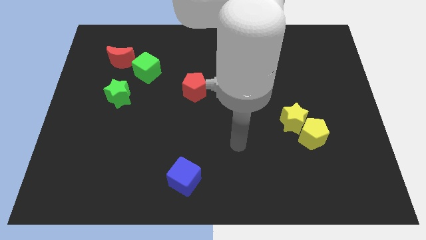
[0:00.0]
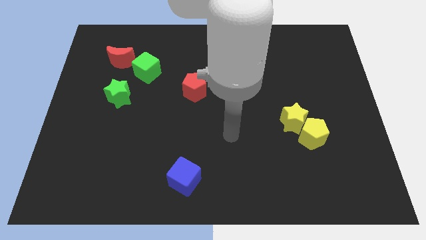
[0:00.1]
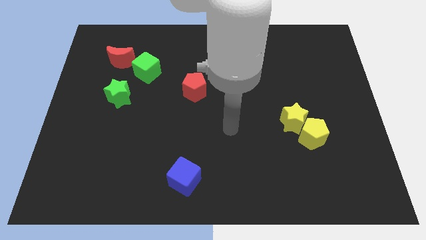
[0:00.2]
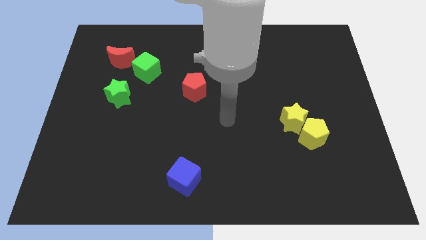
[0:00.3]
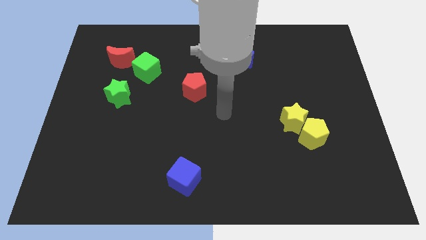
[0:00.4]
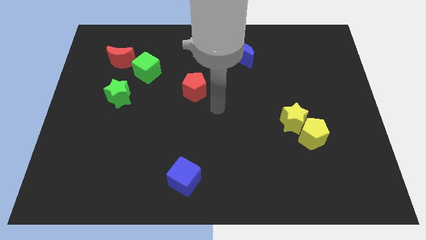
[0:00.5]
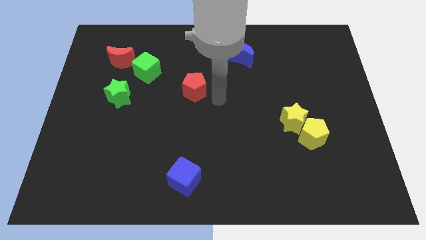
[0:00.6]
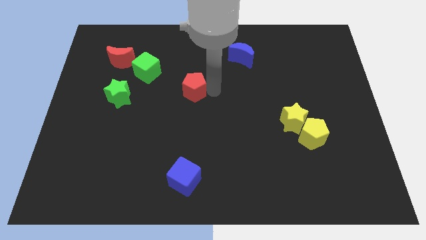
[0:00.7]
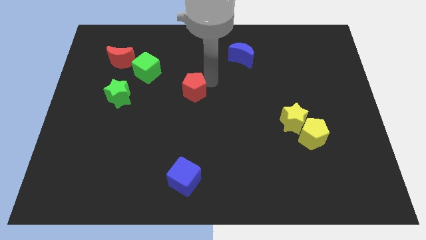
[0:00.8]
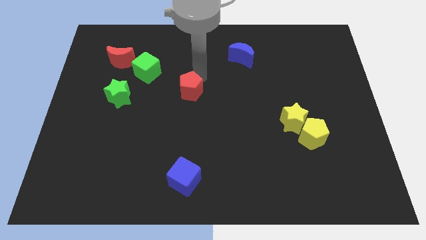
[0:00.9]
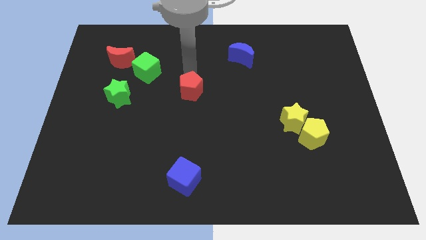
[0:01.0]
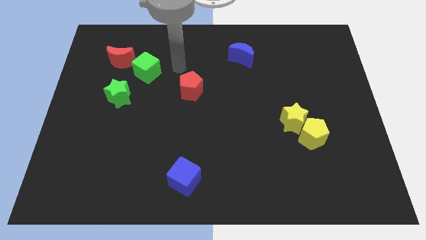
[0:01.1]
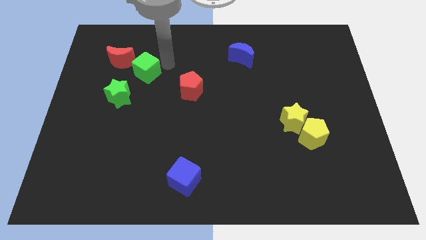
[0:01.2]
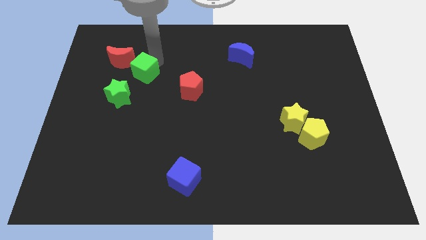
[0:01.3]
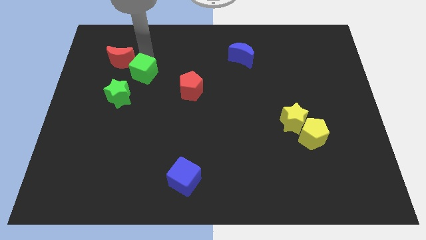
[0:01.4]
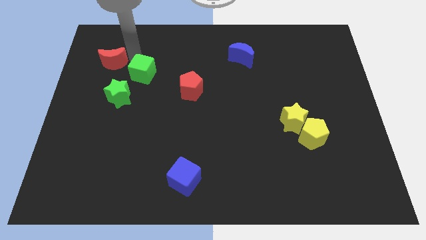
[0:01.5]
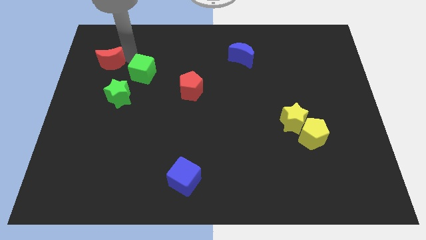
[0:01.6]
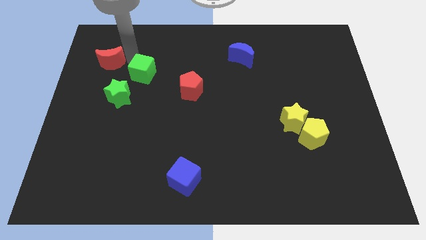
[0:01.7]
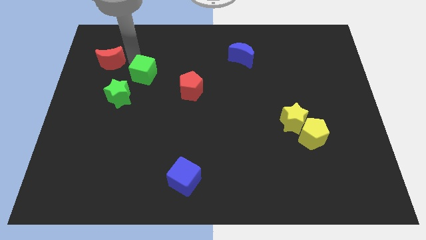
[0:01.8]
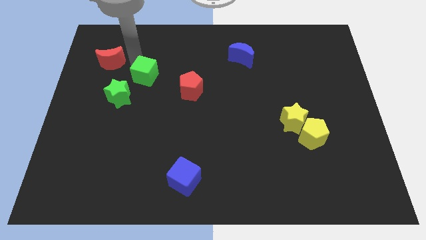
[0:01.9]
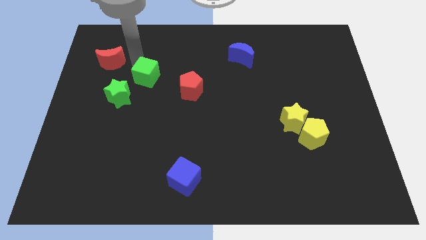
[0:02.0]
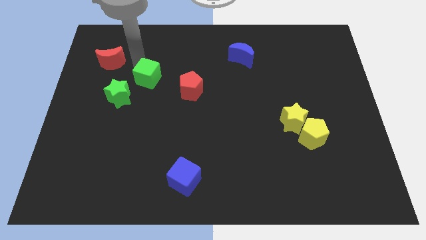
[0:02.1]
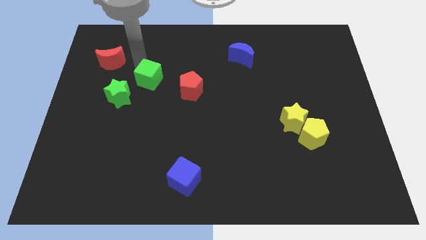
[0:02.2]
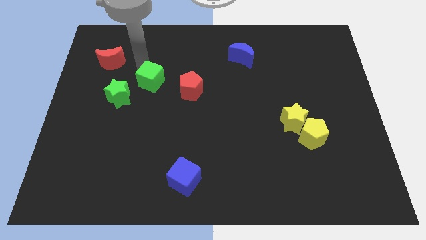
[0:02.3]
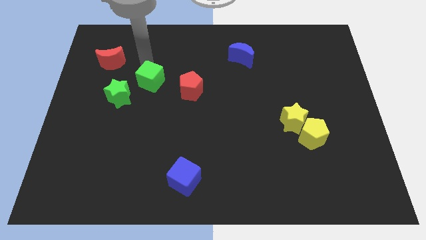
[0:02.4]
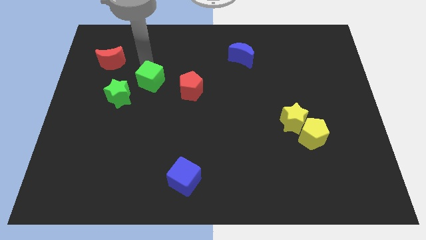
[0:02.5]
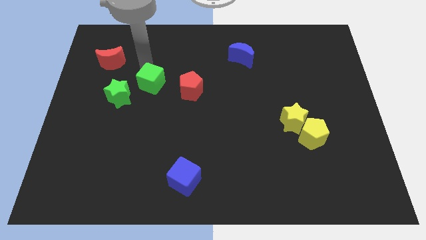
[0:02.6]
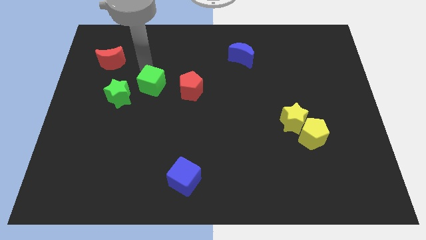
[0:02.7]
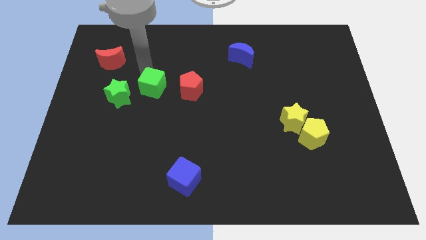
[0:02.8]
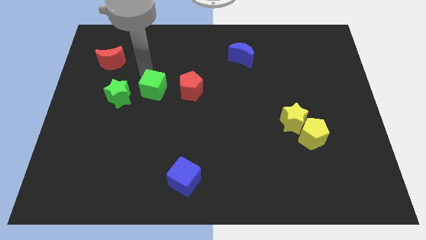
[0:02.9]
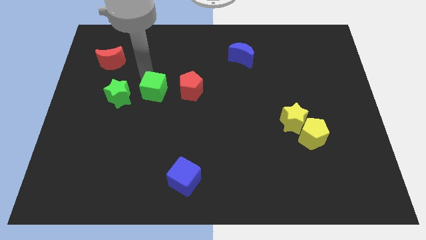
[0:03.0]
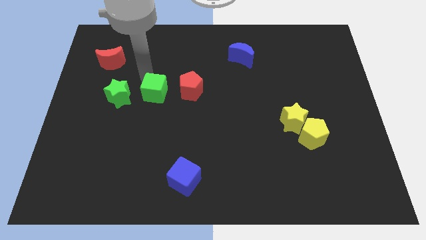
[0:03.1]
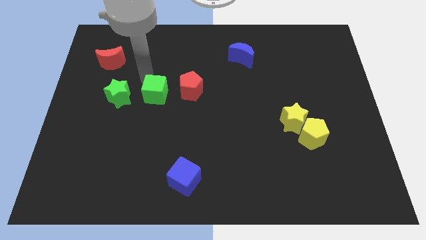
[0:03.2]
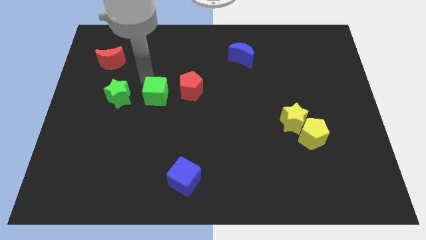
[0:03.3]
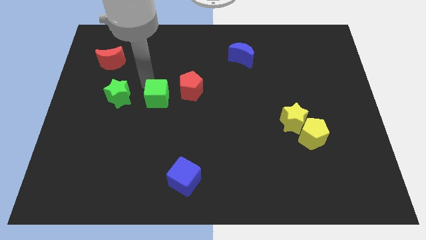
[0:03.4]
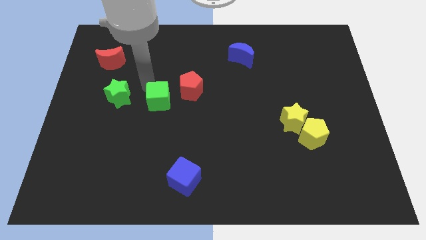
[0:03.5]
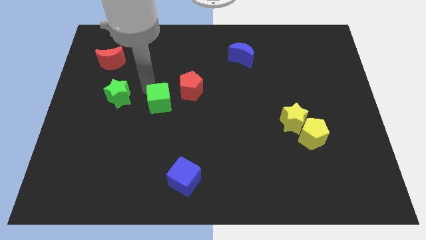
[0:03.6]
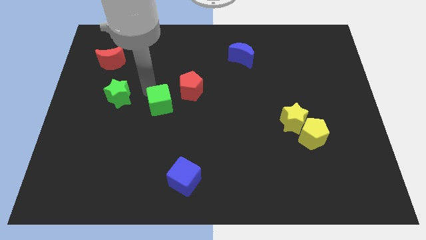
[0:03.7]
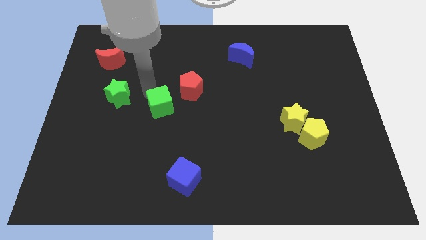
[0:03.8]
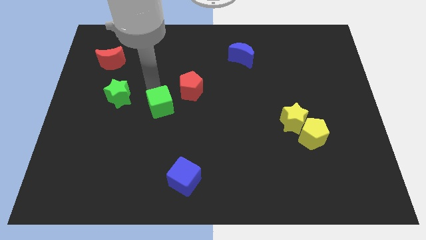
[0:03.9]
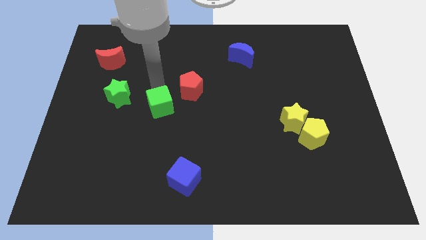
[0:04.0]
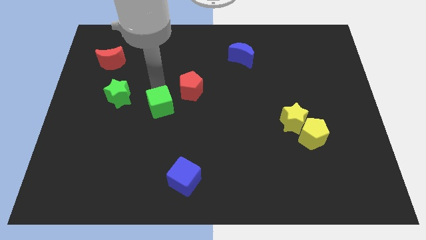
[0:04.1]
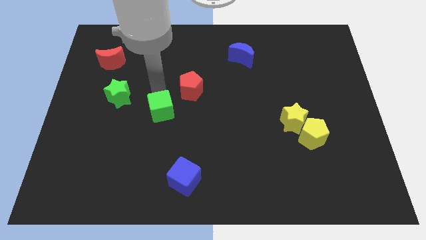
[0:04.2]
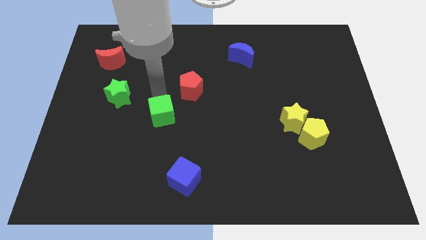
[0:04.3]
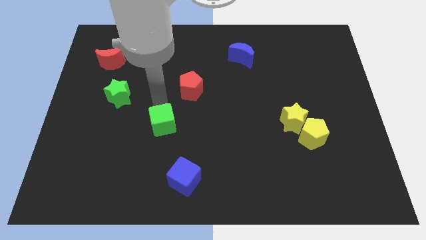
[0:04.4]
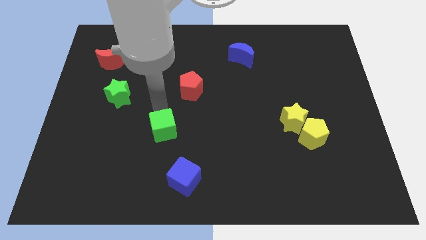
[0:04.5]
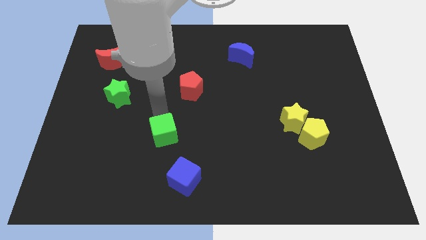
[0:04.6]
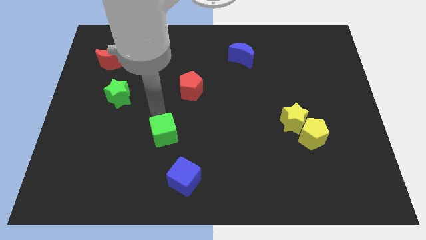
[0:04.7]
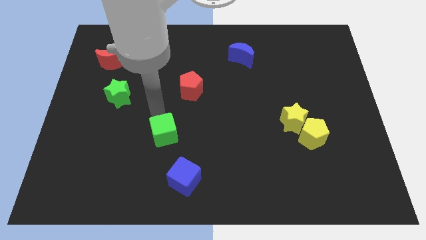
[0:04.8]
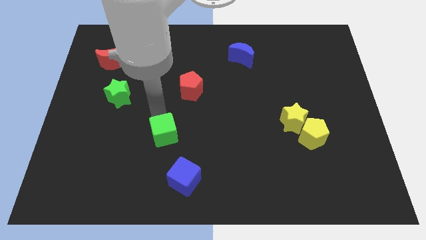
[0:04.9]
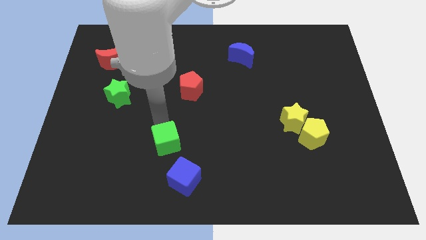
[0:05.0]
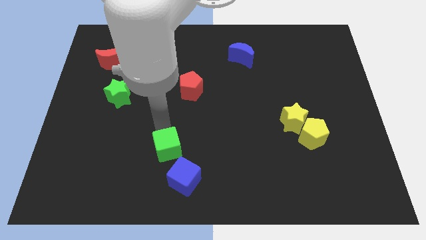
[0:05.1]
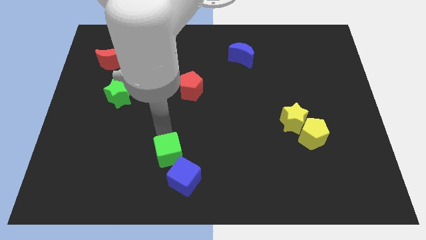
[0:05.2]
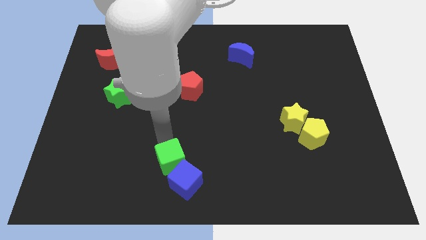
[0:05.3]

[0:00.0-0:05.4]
push the green cube to the blue cube

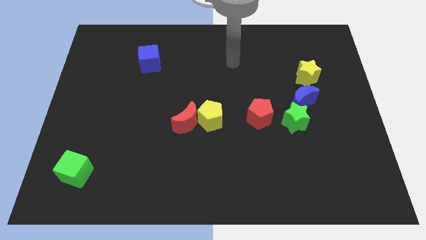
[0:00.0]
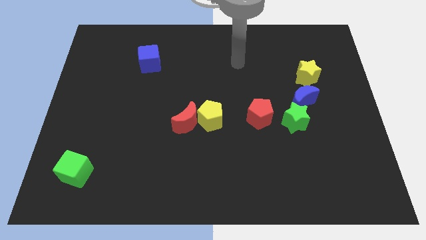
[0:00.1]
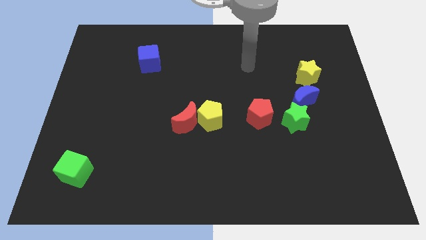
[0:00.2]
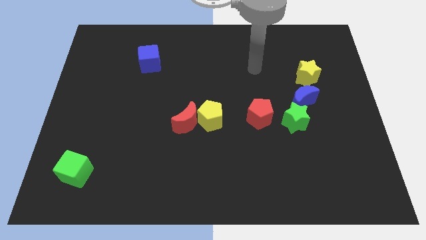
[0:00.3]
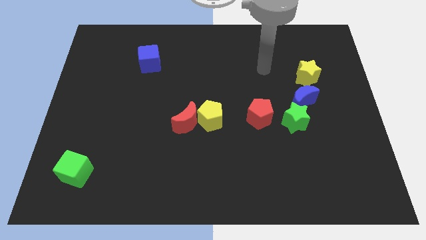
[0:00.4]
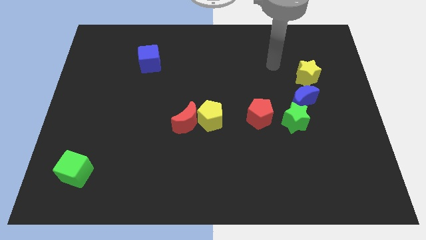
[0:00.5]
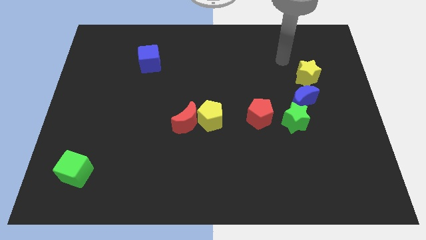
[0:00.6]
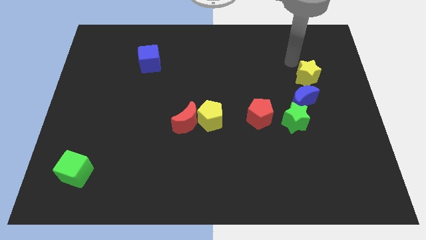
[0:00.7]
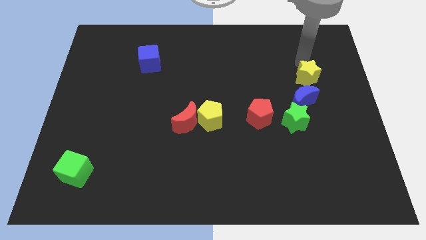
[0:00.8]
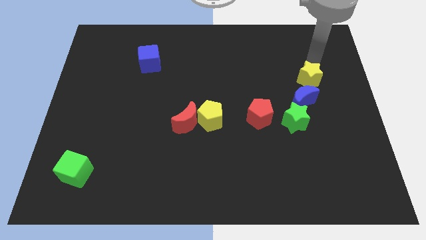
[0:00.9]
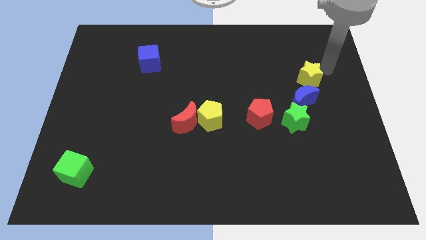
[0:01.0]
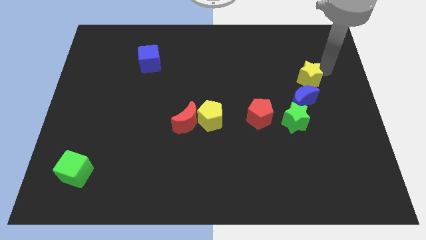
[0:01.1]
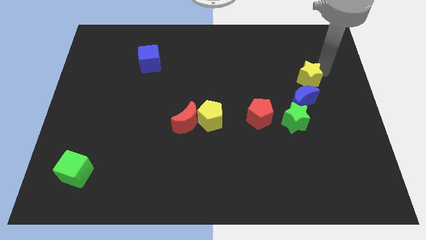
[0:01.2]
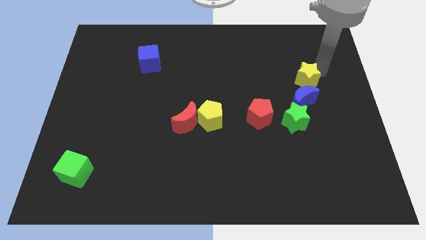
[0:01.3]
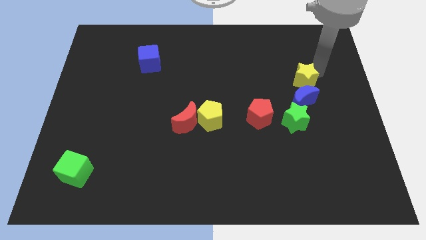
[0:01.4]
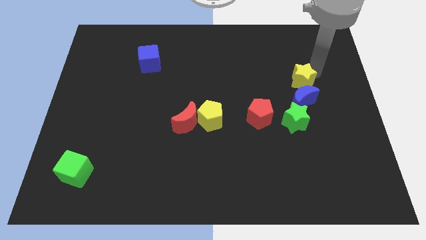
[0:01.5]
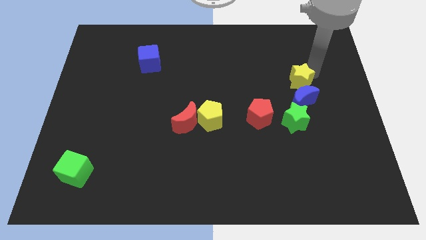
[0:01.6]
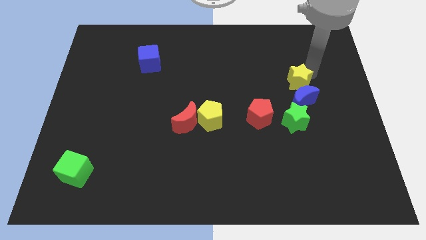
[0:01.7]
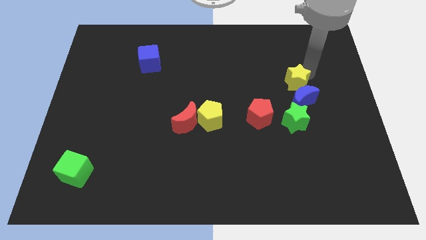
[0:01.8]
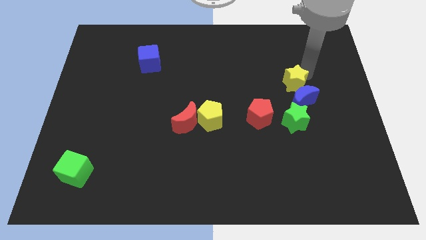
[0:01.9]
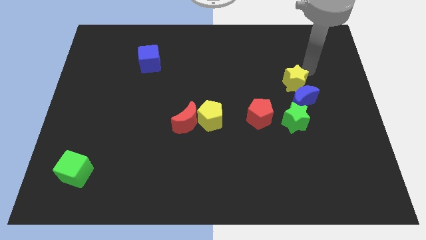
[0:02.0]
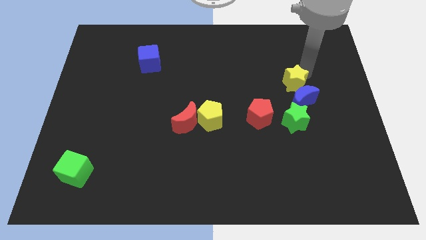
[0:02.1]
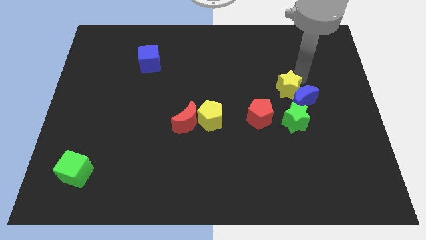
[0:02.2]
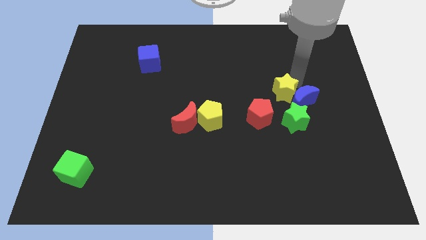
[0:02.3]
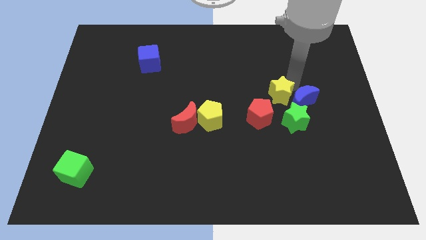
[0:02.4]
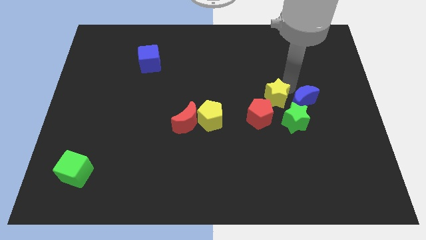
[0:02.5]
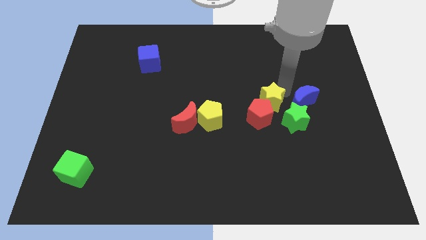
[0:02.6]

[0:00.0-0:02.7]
put the yellow star close to the red pentagon

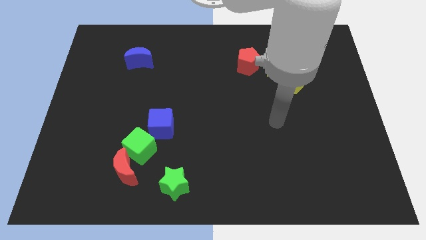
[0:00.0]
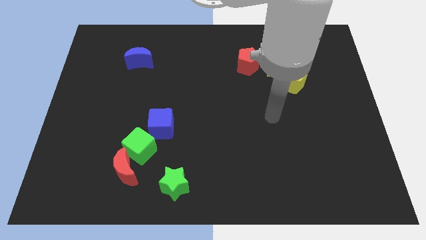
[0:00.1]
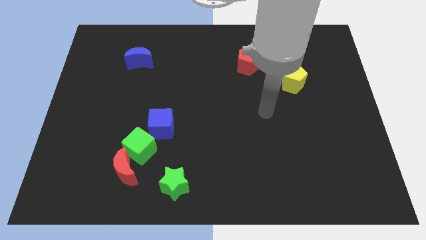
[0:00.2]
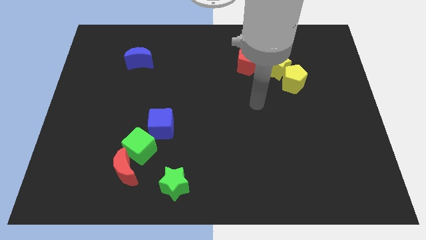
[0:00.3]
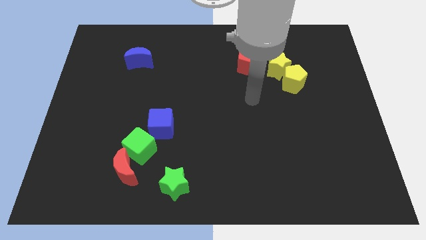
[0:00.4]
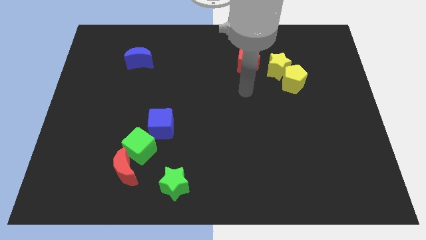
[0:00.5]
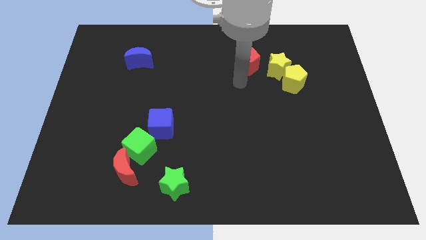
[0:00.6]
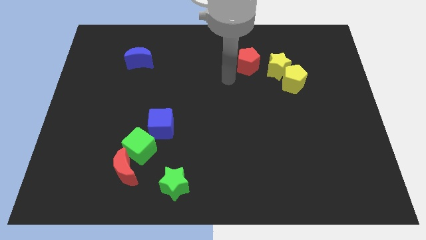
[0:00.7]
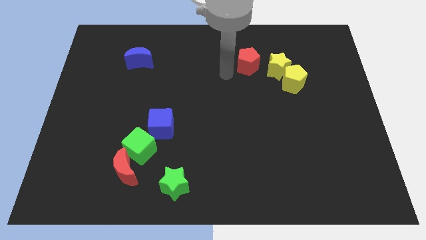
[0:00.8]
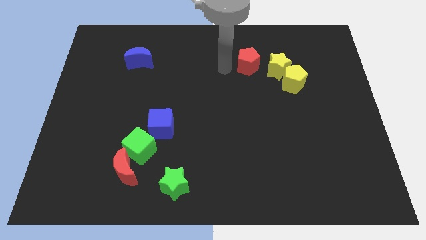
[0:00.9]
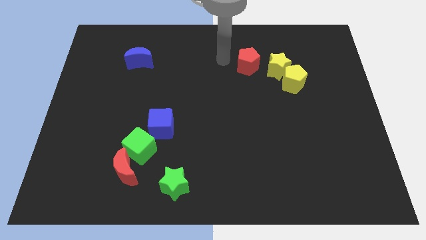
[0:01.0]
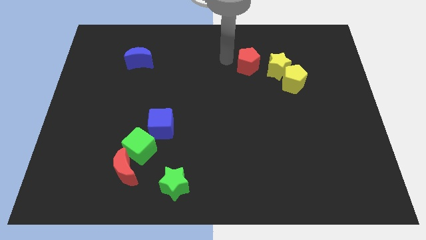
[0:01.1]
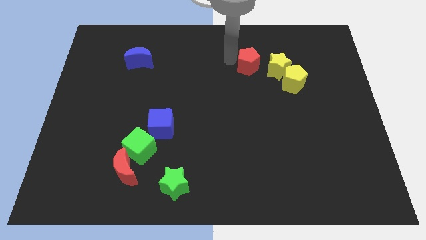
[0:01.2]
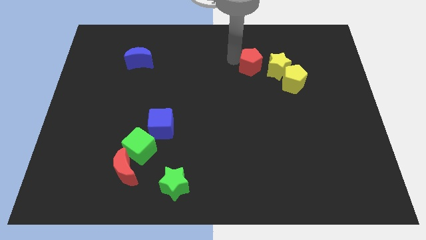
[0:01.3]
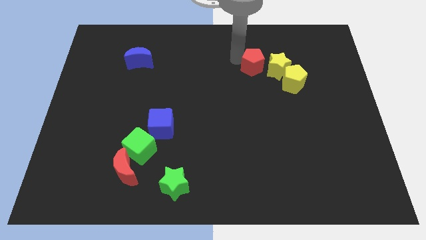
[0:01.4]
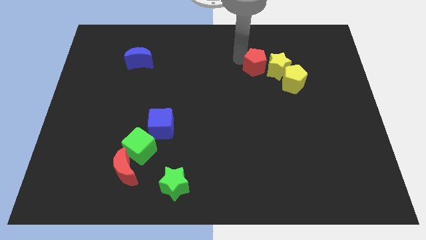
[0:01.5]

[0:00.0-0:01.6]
put the red pentagon close to the yellow star
